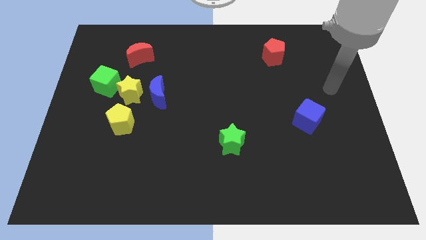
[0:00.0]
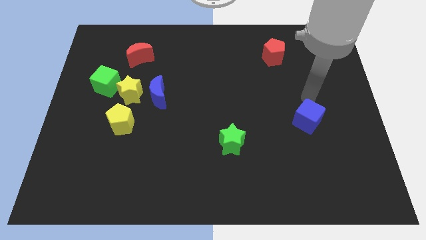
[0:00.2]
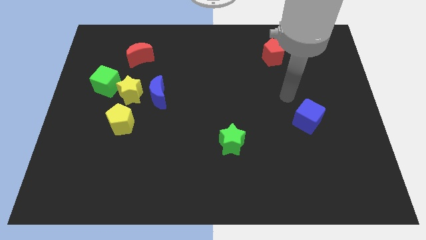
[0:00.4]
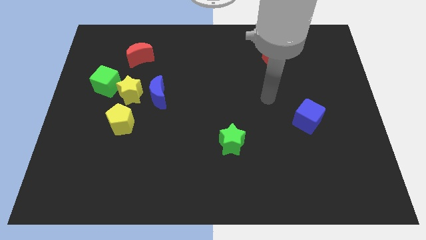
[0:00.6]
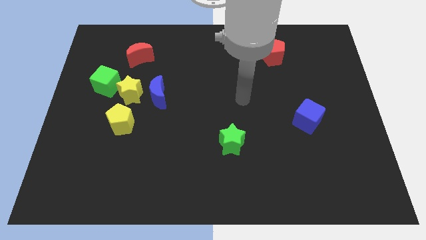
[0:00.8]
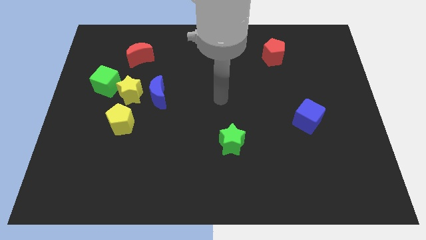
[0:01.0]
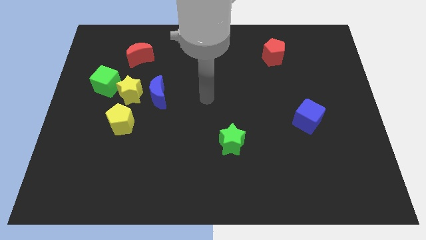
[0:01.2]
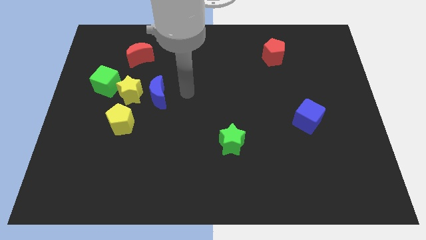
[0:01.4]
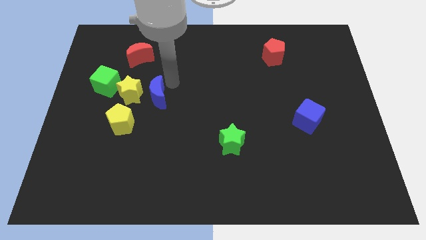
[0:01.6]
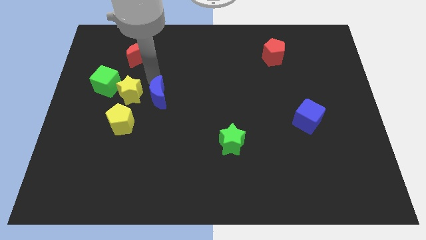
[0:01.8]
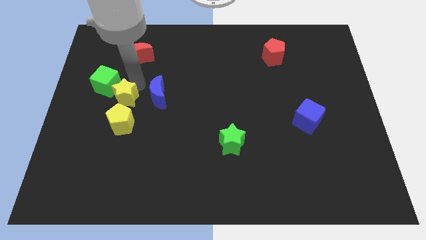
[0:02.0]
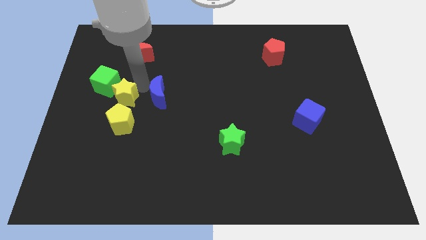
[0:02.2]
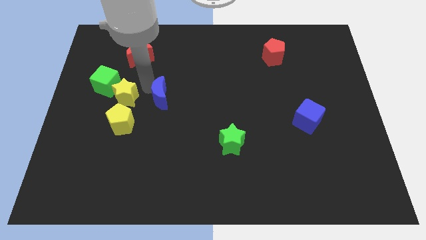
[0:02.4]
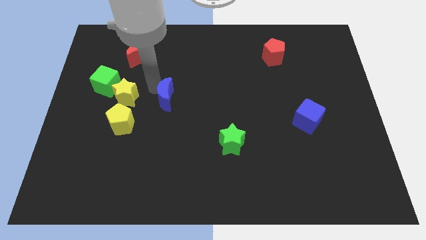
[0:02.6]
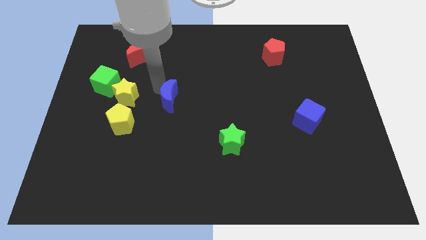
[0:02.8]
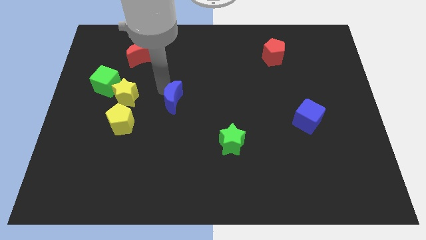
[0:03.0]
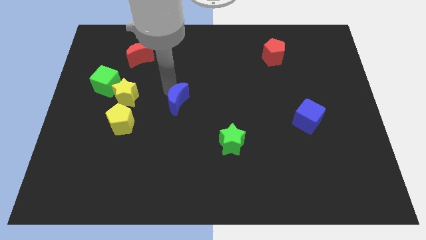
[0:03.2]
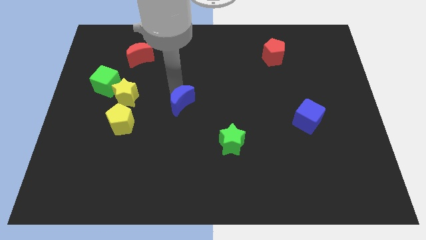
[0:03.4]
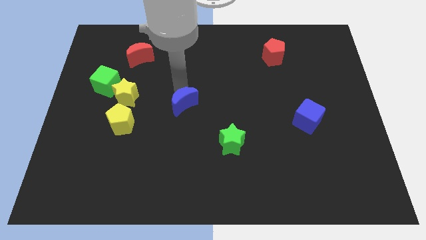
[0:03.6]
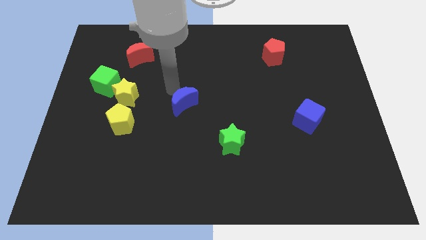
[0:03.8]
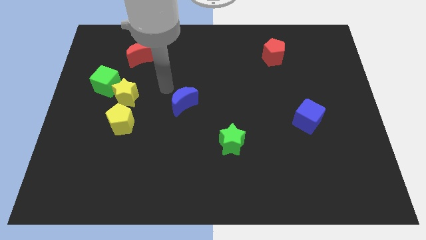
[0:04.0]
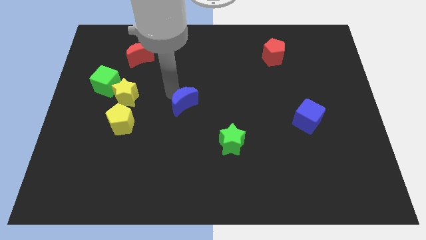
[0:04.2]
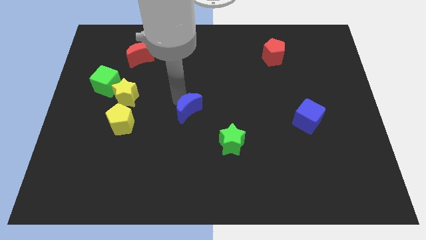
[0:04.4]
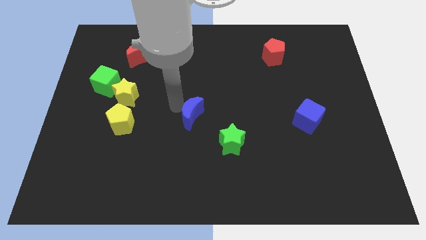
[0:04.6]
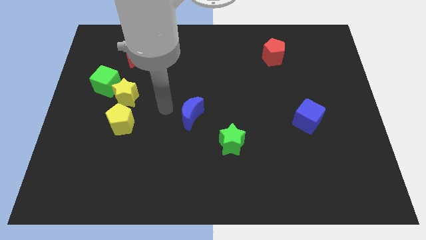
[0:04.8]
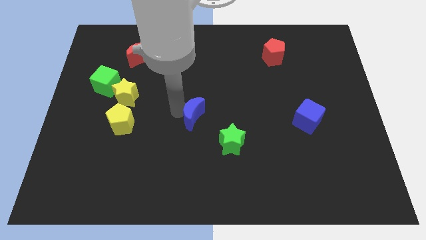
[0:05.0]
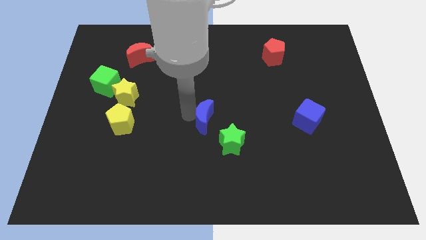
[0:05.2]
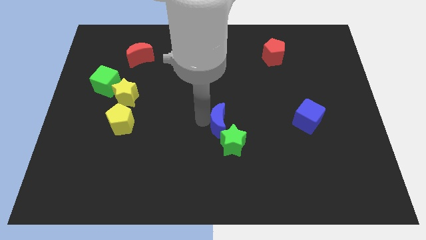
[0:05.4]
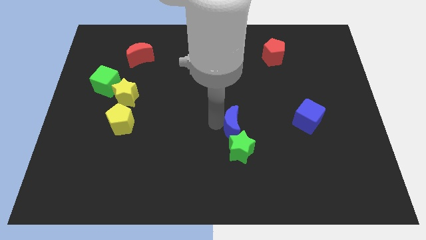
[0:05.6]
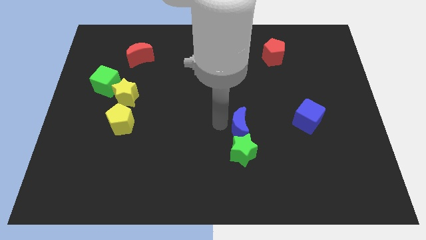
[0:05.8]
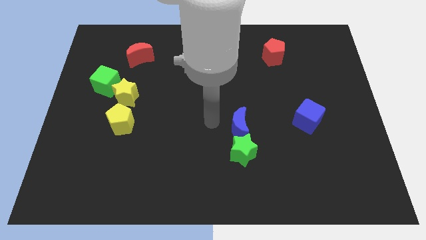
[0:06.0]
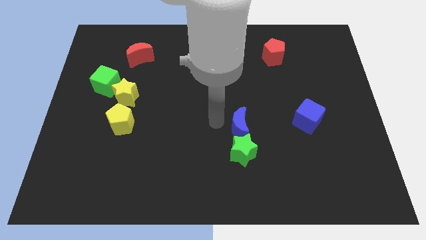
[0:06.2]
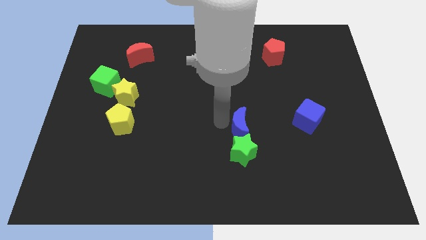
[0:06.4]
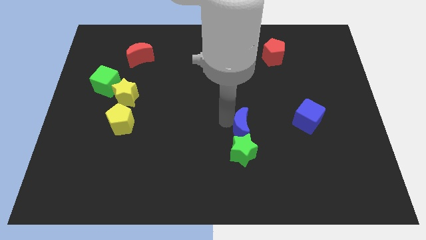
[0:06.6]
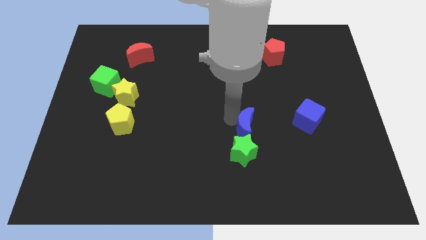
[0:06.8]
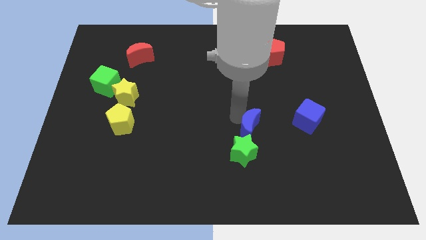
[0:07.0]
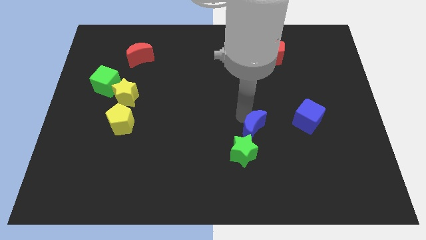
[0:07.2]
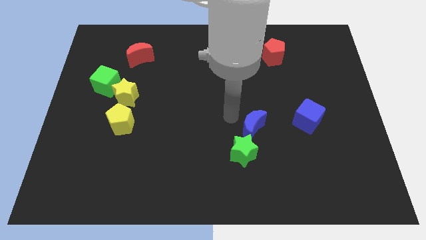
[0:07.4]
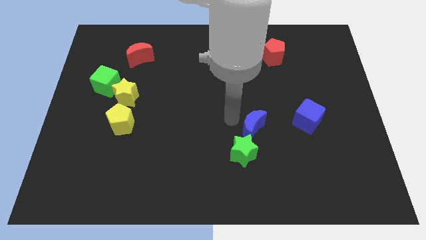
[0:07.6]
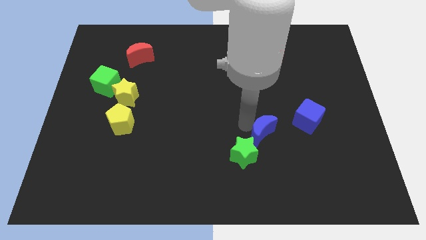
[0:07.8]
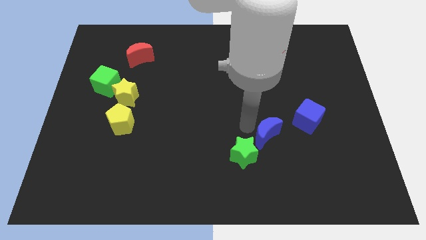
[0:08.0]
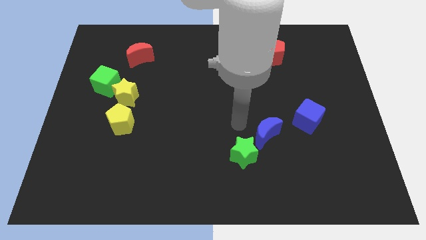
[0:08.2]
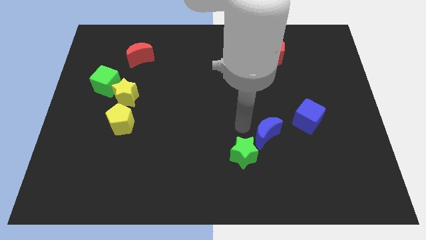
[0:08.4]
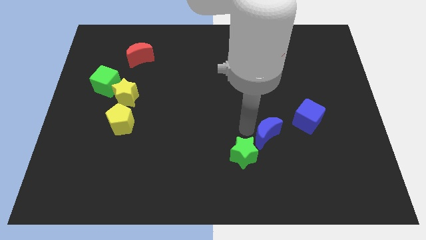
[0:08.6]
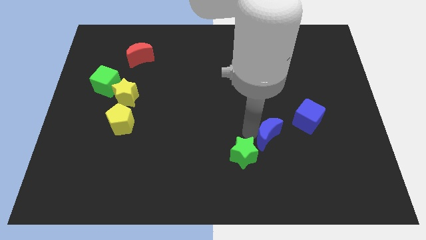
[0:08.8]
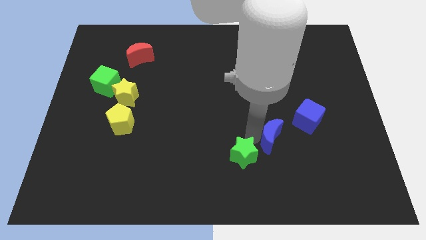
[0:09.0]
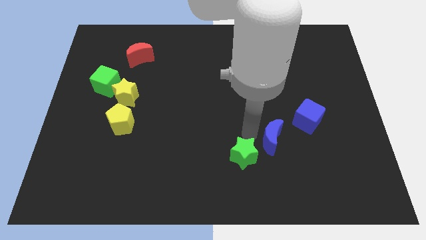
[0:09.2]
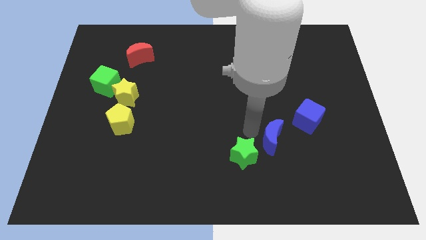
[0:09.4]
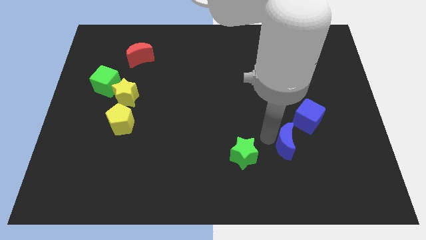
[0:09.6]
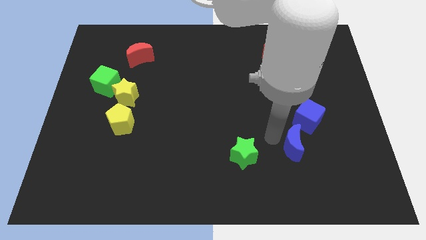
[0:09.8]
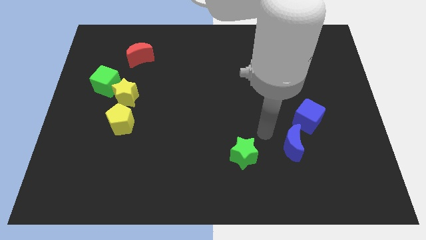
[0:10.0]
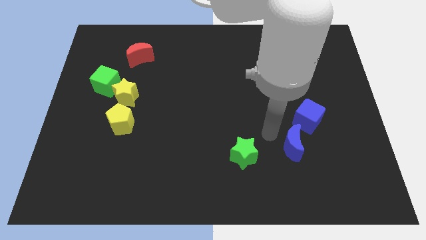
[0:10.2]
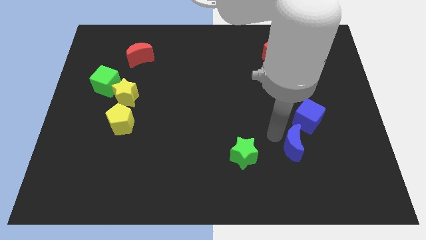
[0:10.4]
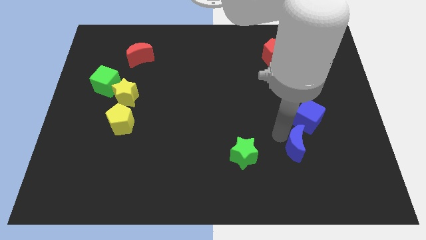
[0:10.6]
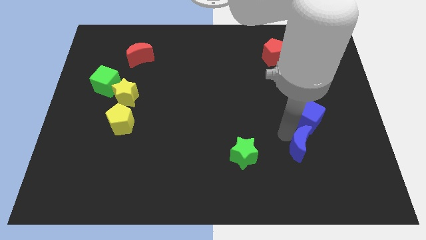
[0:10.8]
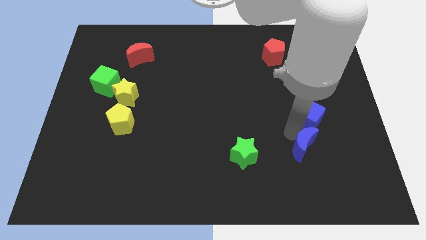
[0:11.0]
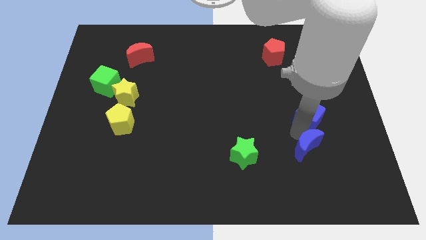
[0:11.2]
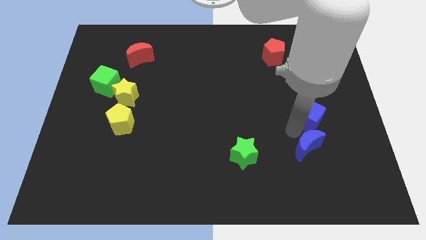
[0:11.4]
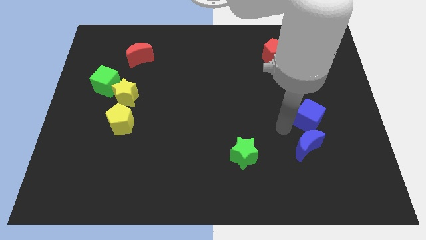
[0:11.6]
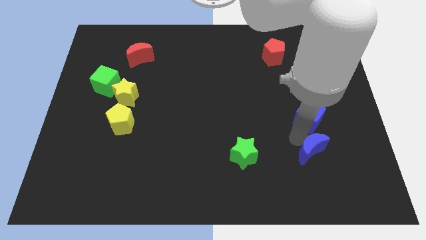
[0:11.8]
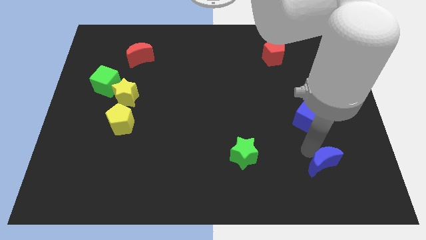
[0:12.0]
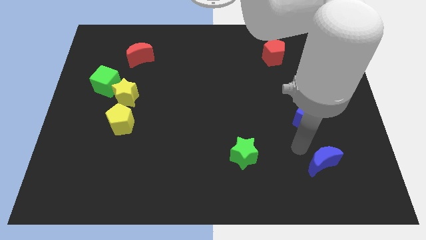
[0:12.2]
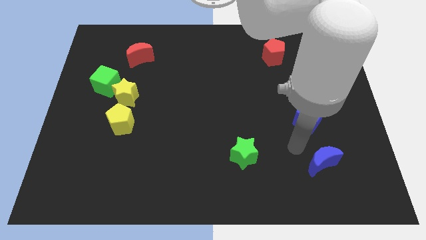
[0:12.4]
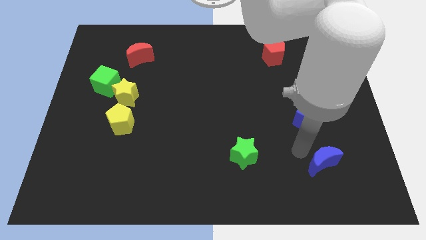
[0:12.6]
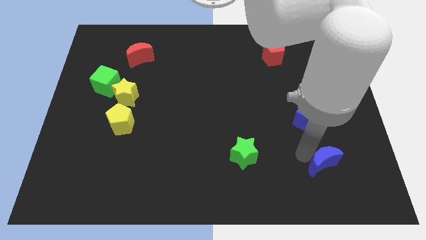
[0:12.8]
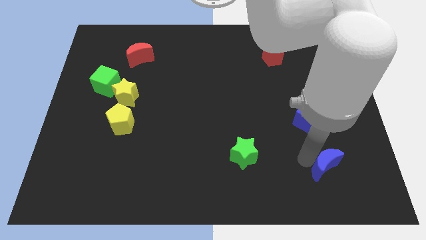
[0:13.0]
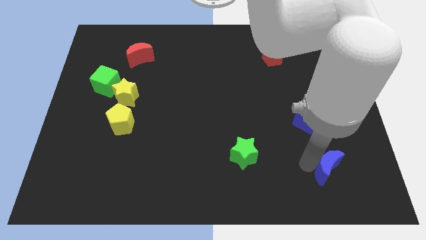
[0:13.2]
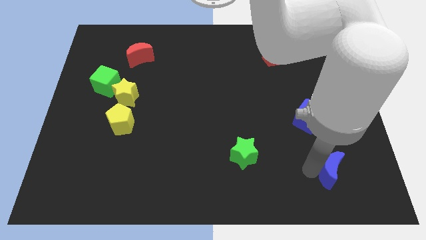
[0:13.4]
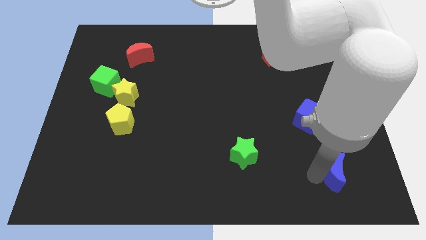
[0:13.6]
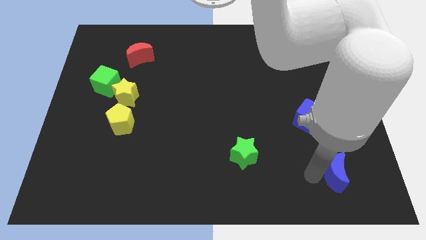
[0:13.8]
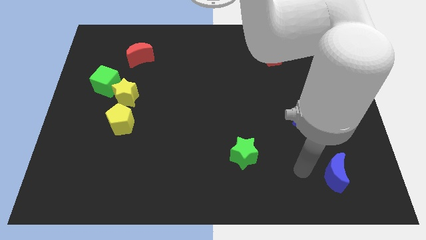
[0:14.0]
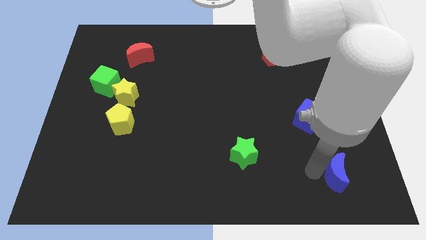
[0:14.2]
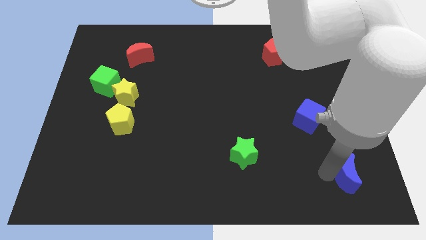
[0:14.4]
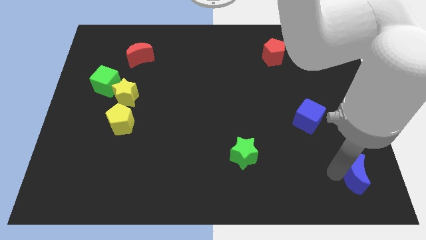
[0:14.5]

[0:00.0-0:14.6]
slide the blue moon to the bottom right of the board
